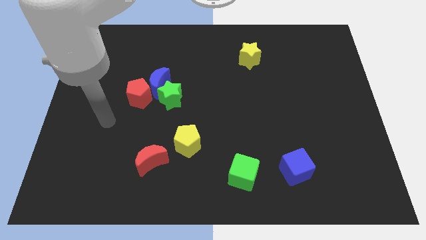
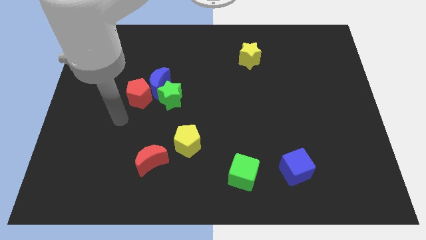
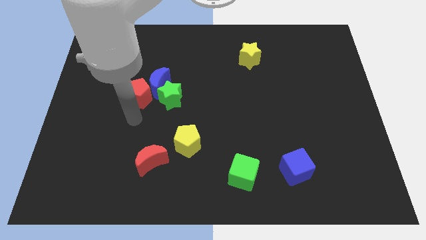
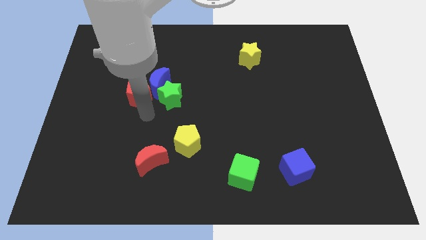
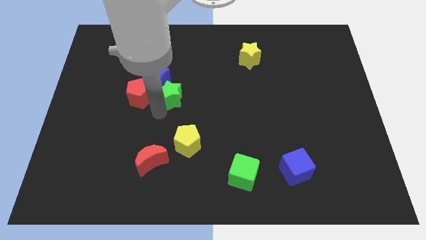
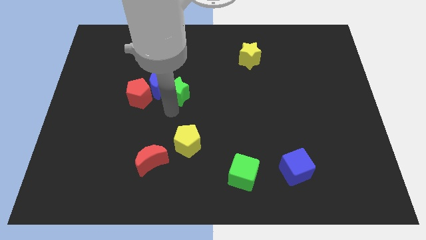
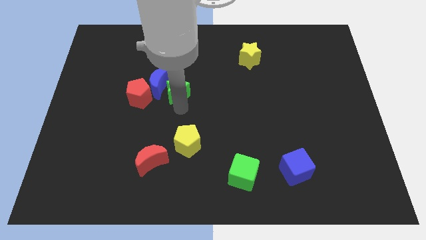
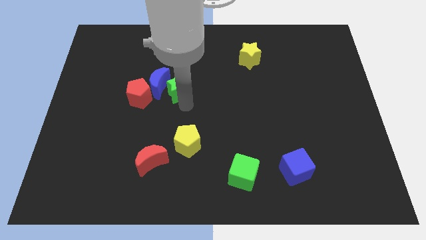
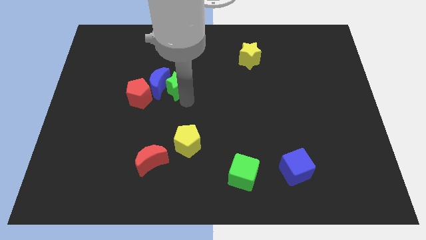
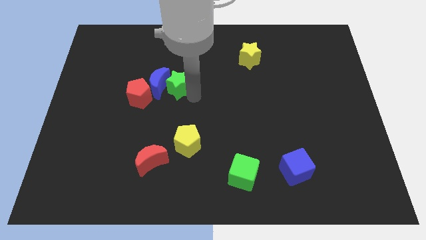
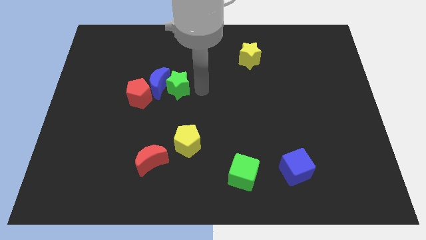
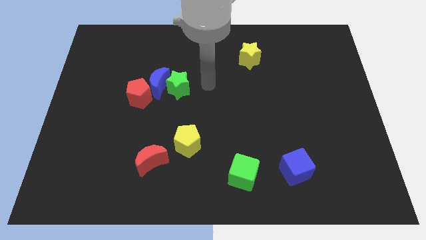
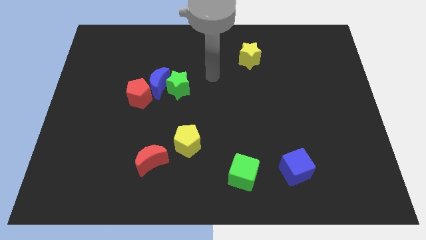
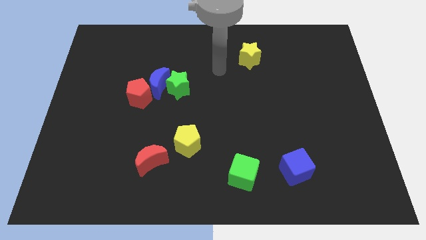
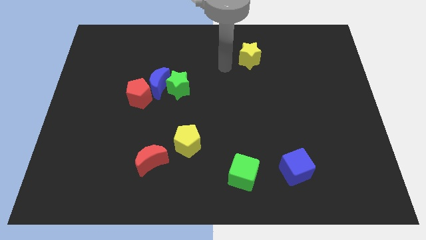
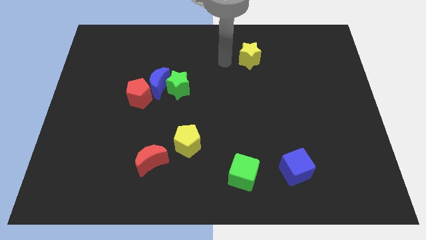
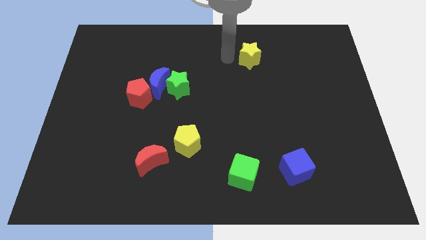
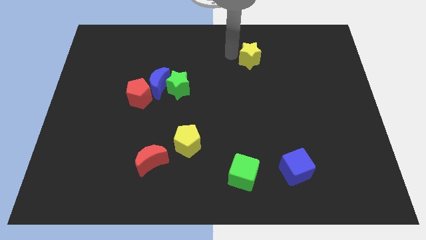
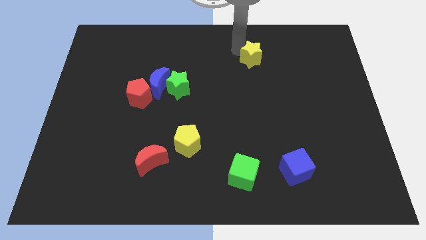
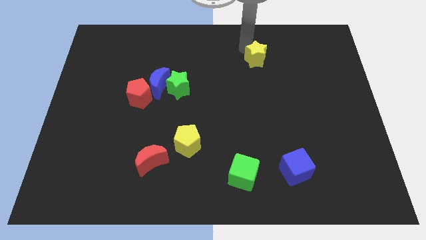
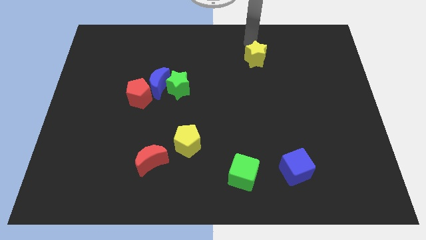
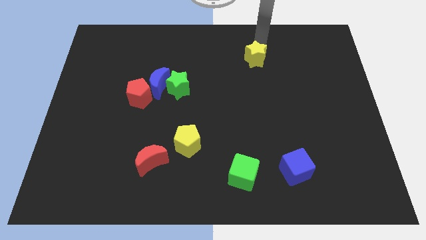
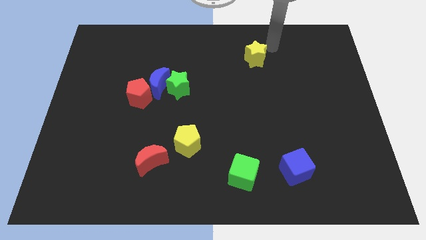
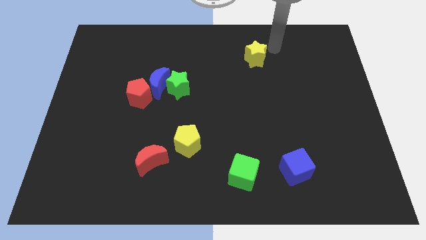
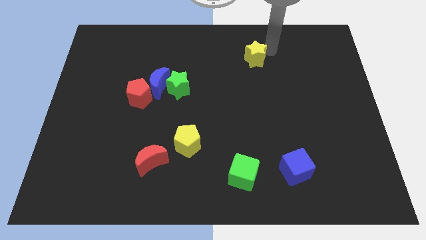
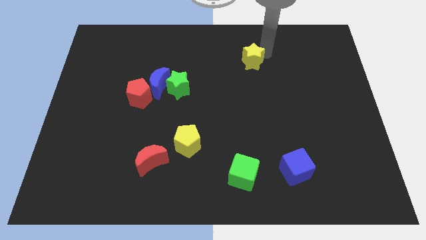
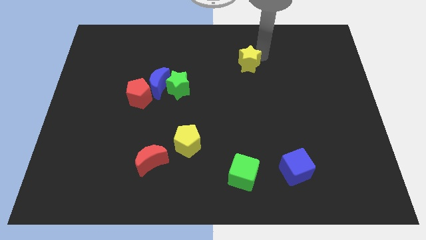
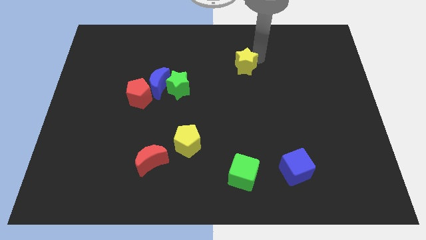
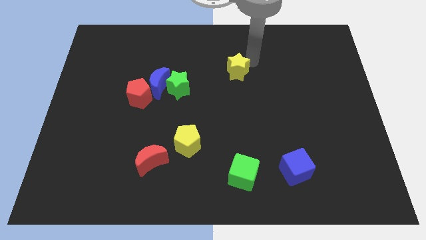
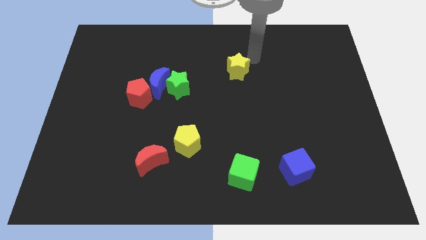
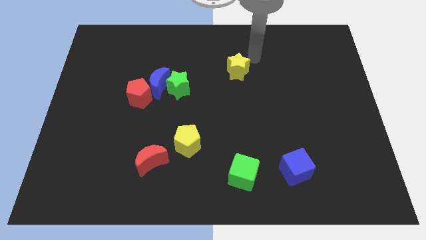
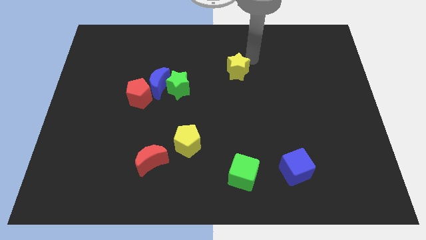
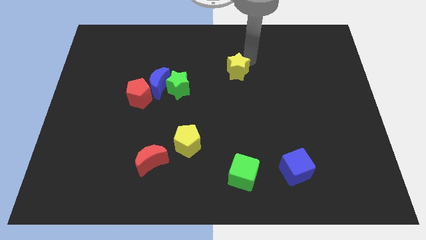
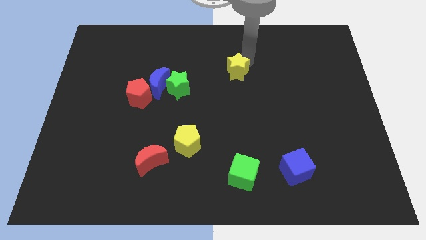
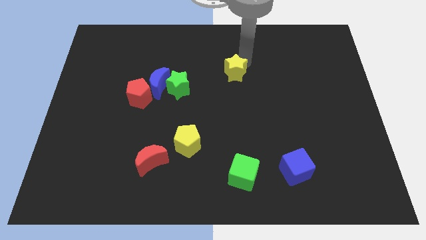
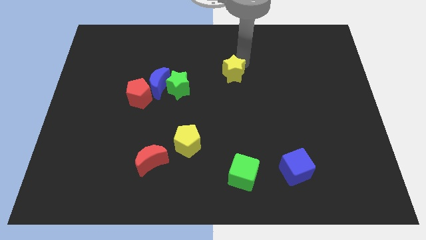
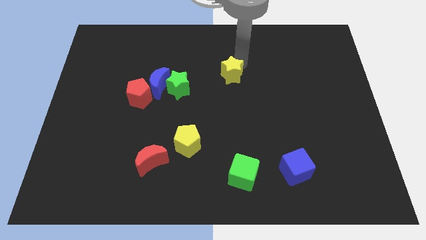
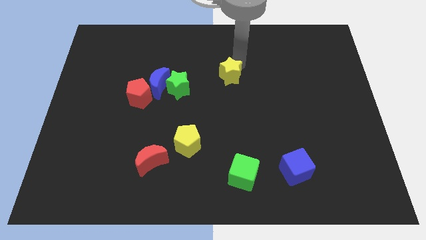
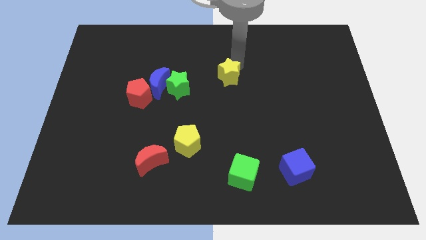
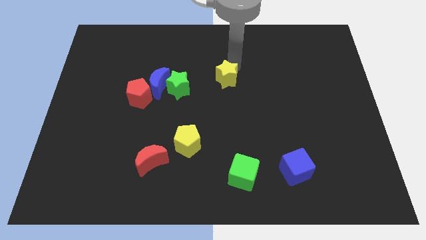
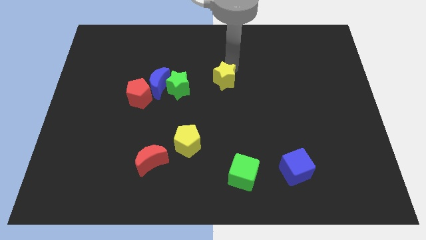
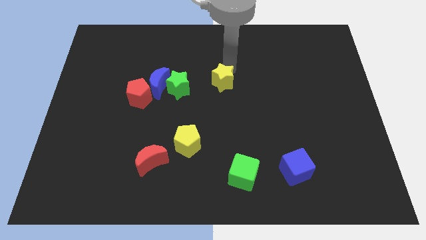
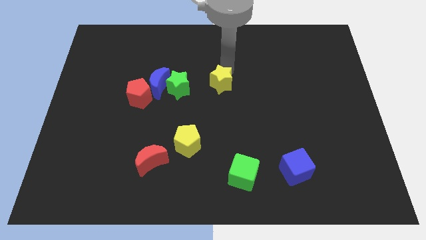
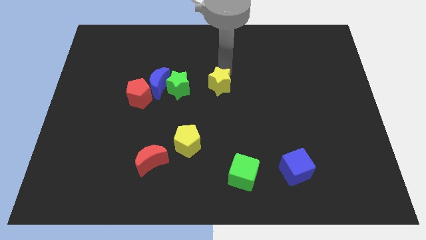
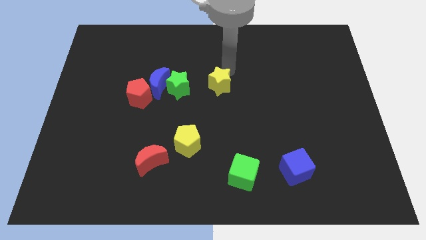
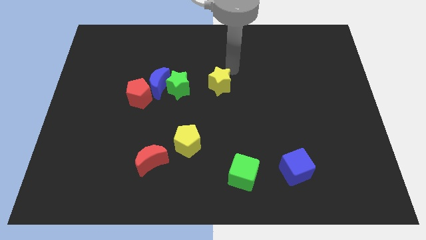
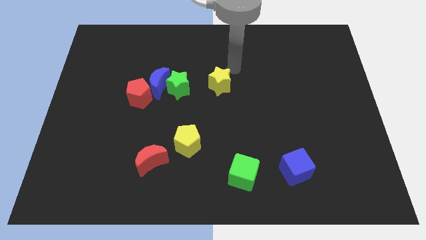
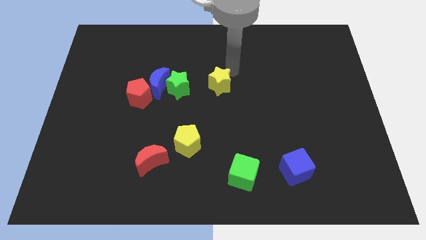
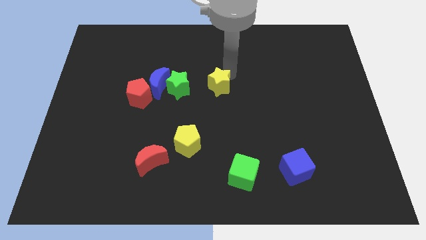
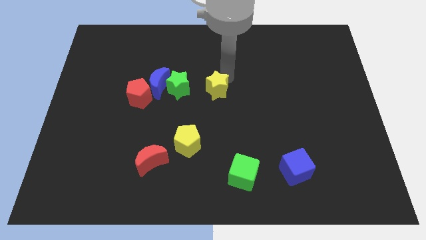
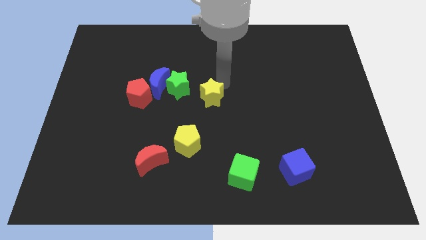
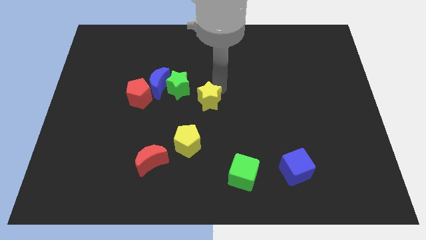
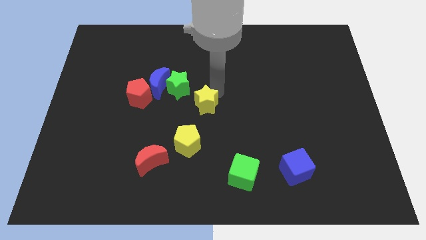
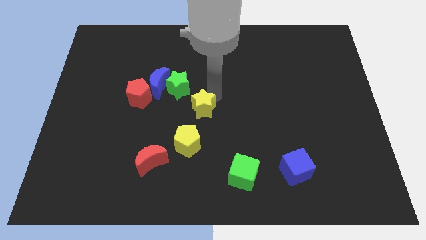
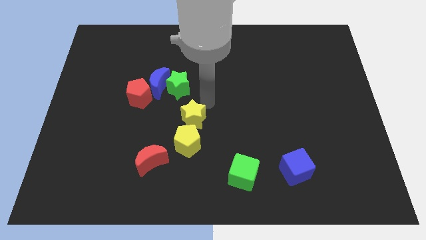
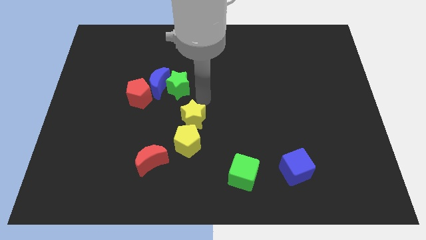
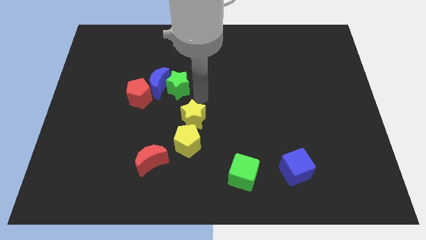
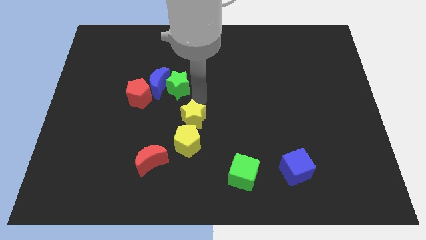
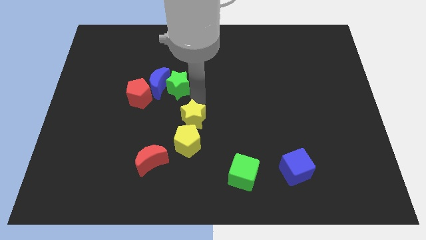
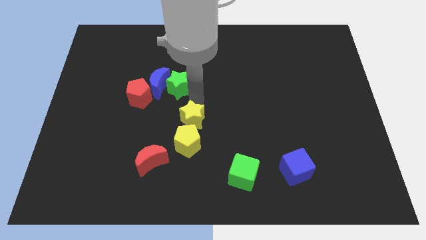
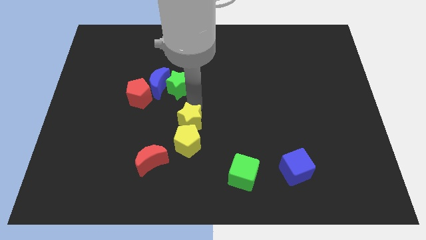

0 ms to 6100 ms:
move the yellow star towards the yellow pentagon

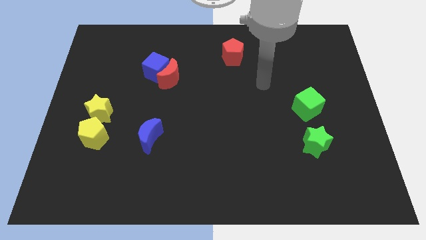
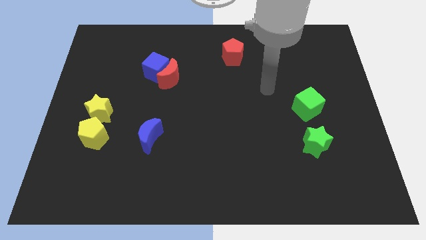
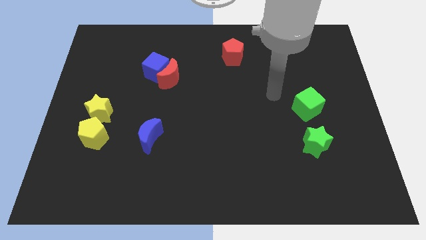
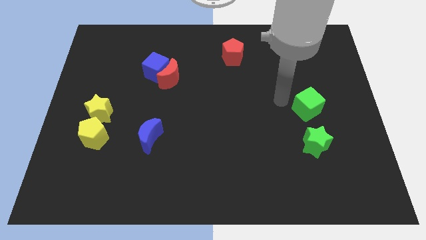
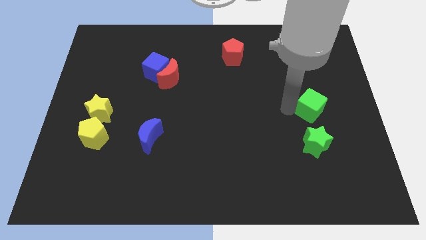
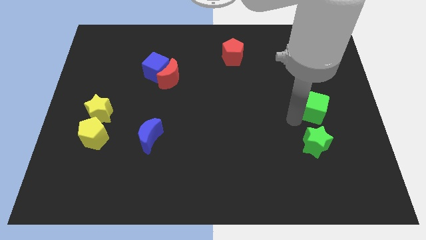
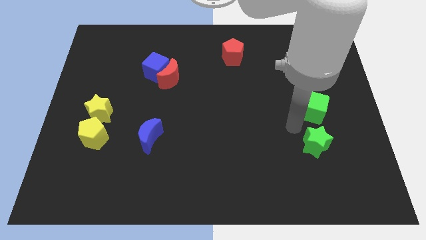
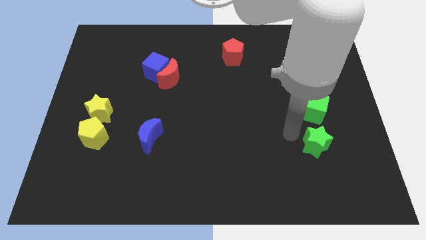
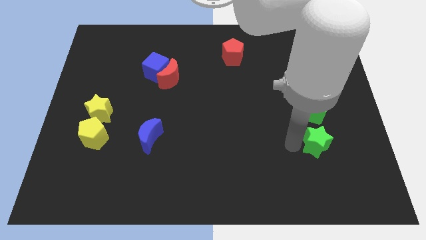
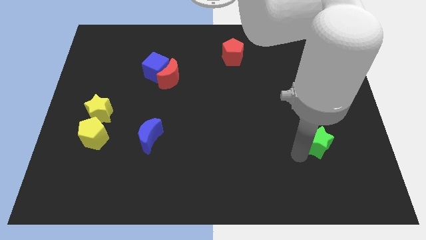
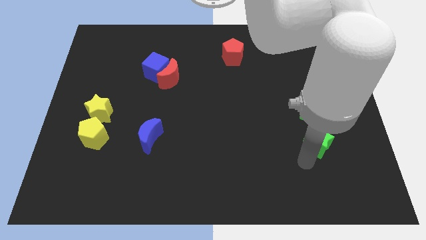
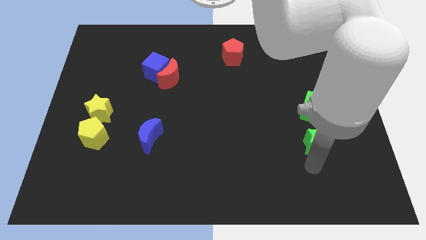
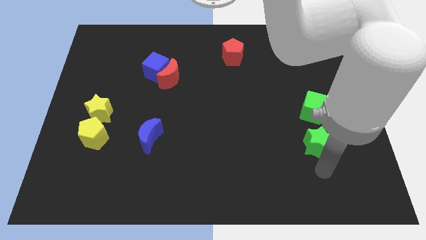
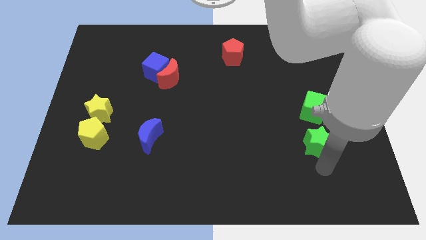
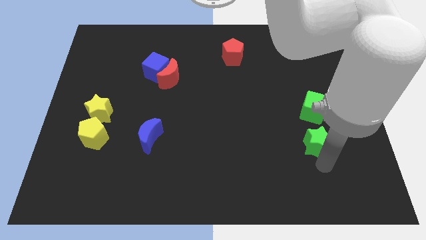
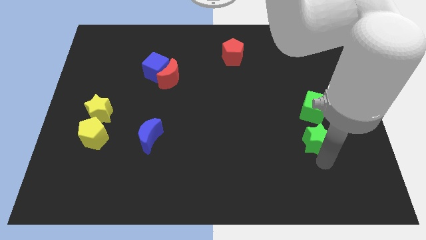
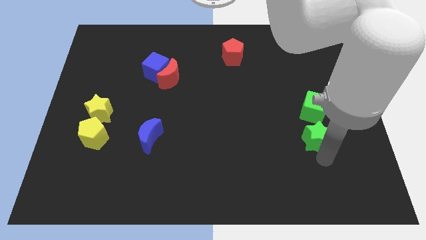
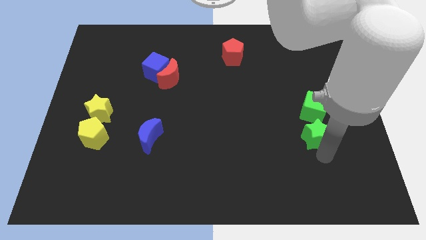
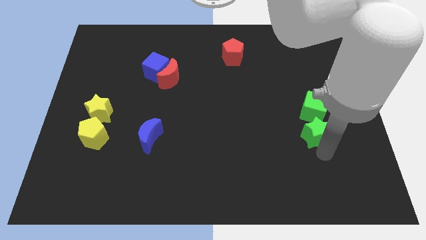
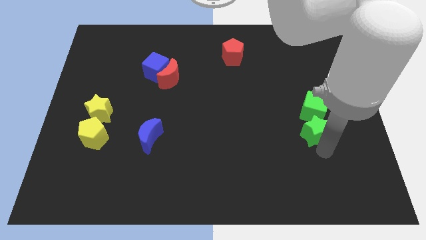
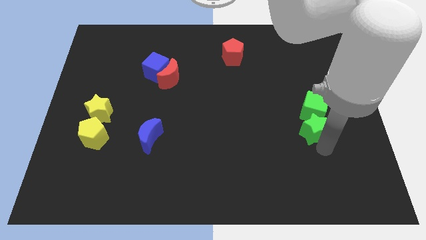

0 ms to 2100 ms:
push the green star towards the green cube
